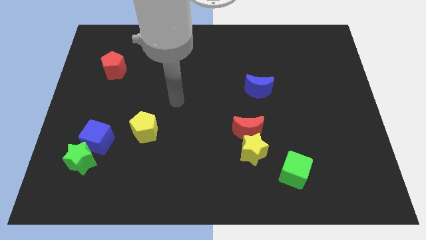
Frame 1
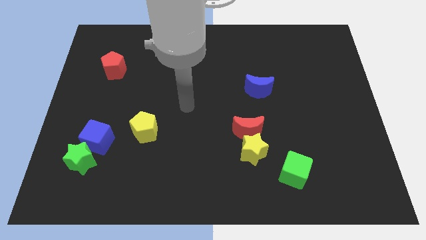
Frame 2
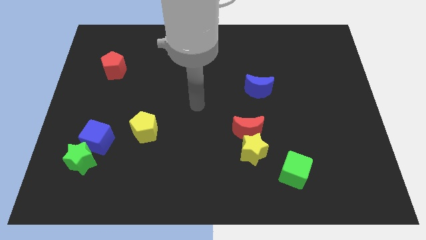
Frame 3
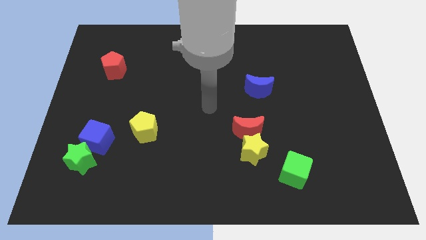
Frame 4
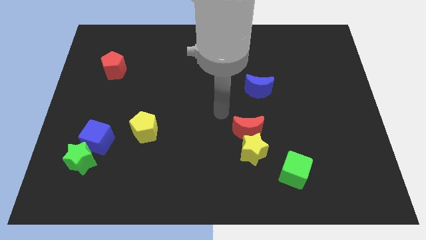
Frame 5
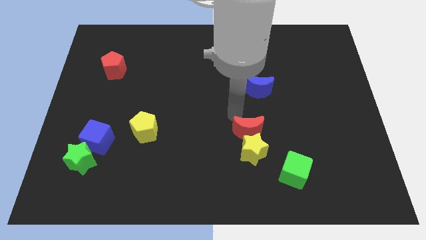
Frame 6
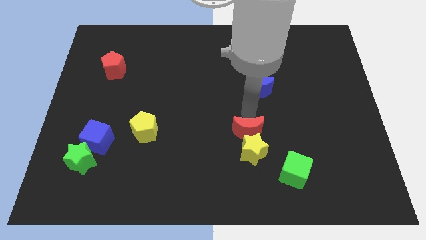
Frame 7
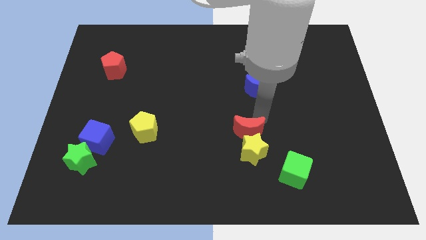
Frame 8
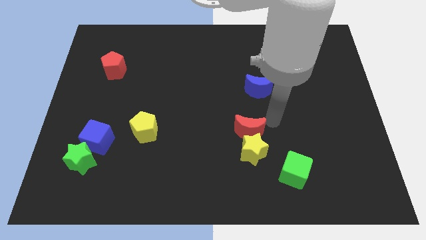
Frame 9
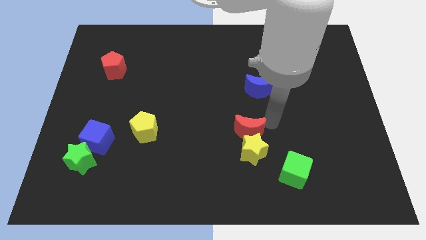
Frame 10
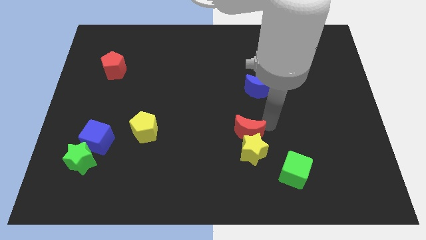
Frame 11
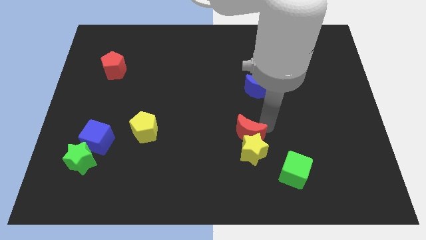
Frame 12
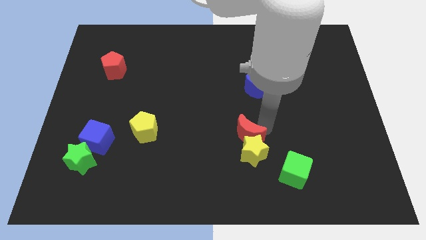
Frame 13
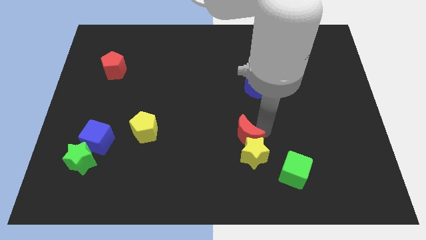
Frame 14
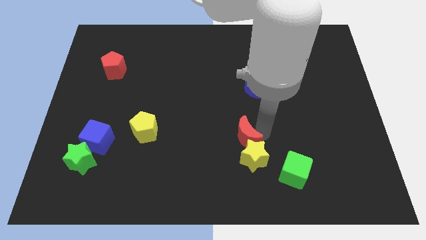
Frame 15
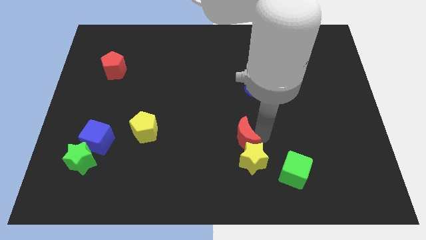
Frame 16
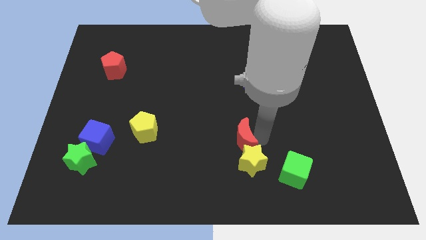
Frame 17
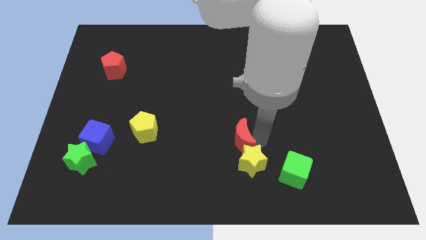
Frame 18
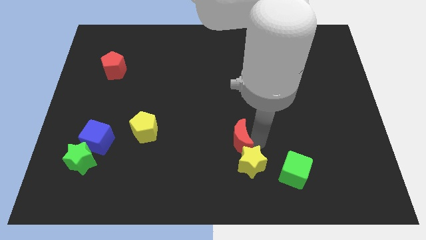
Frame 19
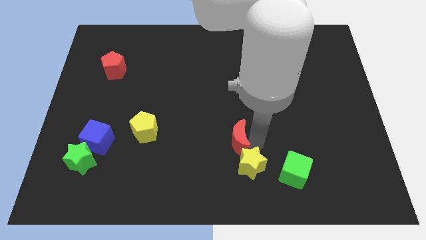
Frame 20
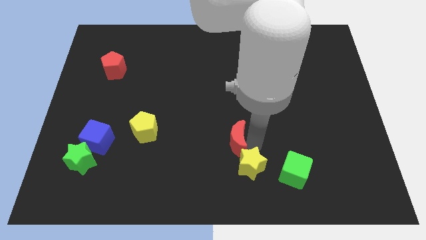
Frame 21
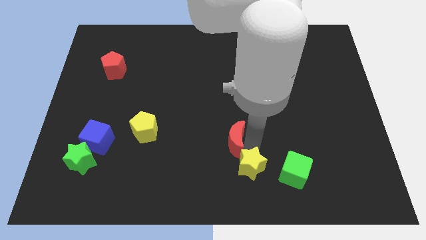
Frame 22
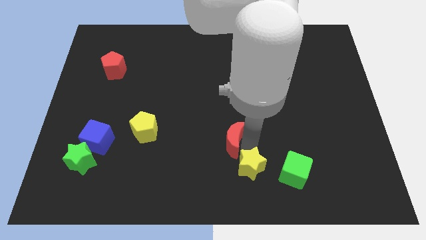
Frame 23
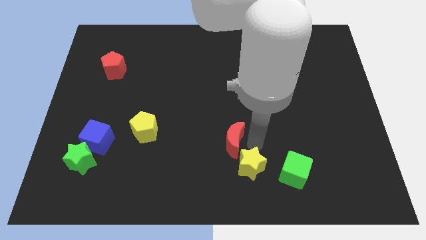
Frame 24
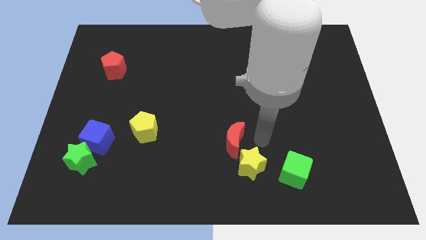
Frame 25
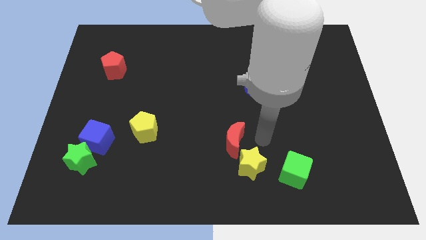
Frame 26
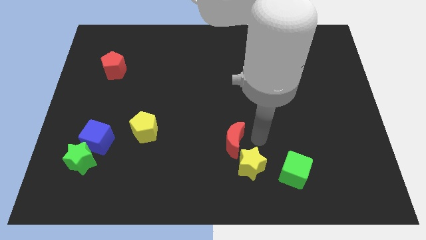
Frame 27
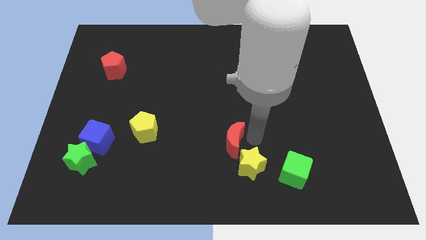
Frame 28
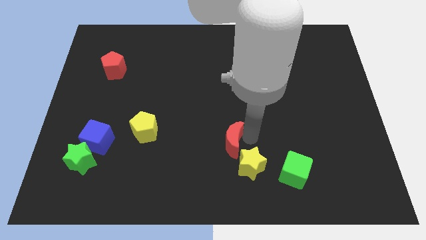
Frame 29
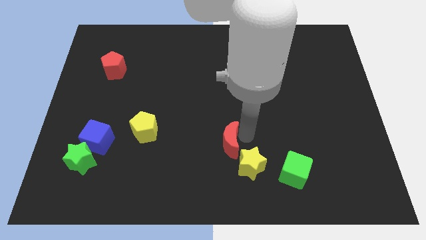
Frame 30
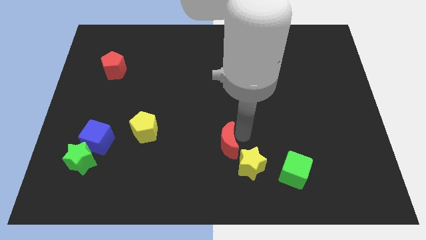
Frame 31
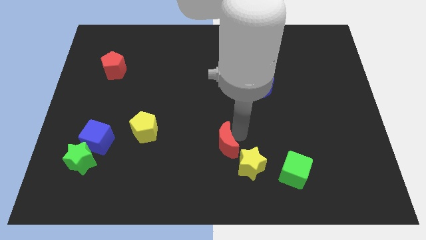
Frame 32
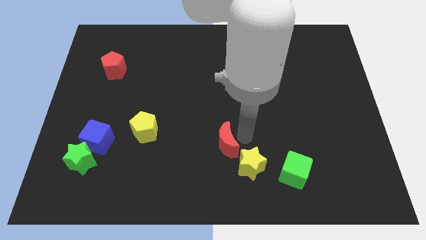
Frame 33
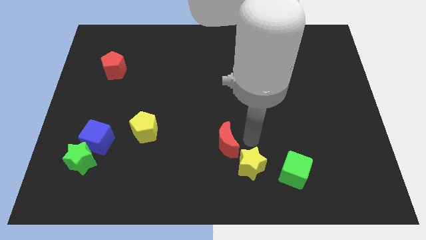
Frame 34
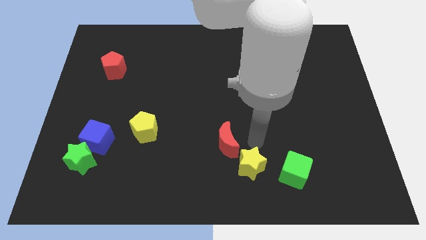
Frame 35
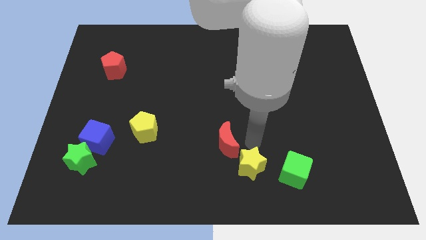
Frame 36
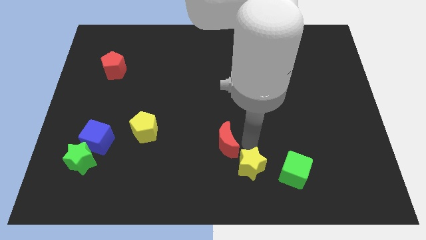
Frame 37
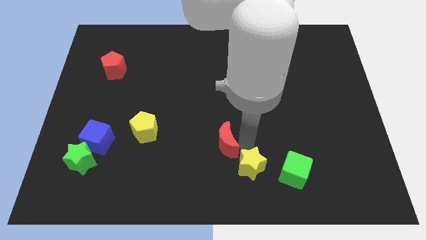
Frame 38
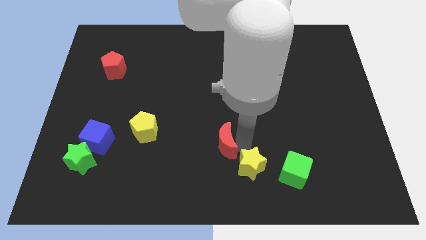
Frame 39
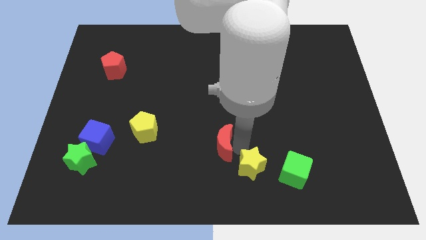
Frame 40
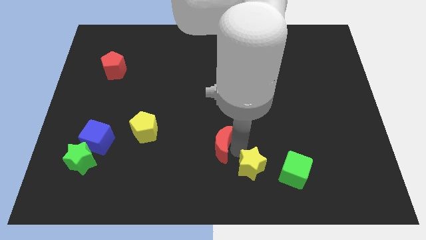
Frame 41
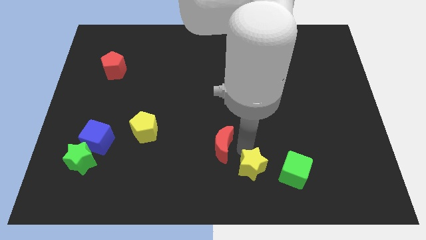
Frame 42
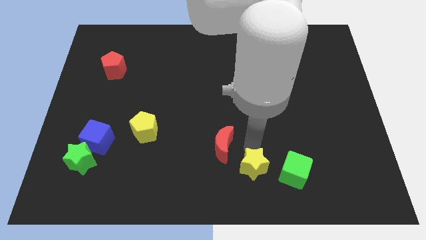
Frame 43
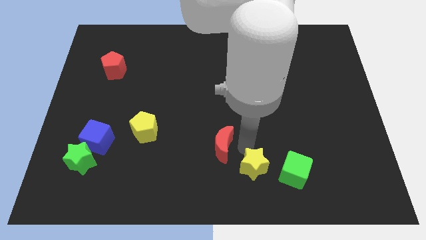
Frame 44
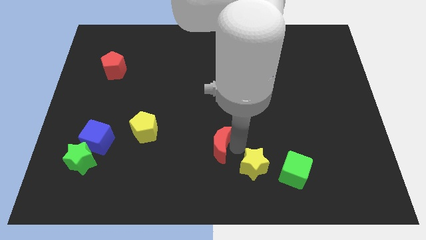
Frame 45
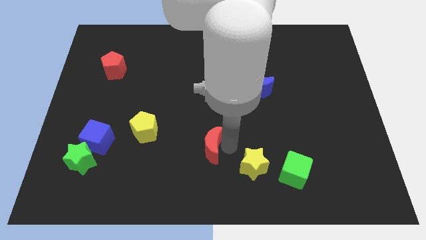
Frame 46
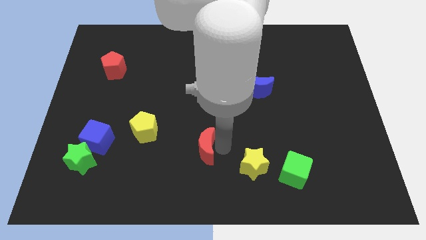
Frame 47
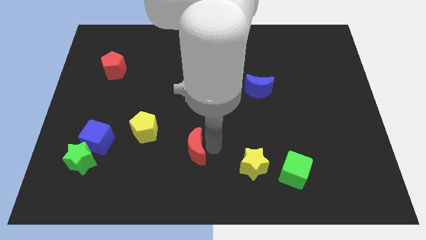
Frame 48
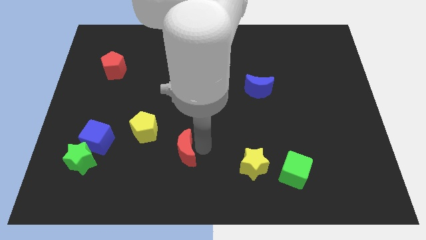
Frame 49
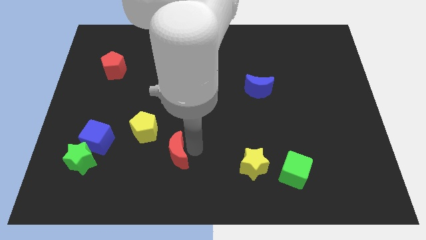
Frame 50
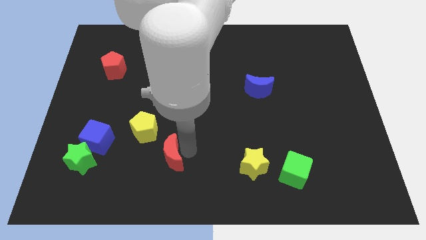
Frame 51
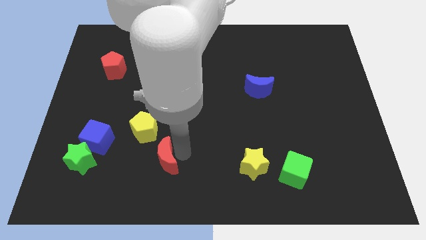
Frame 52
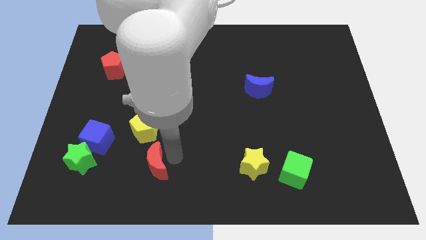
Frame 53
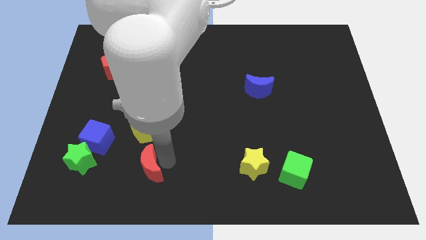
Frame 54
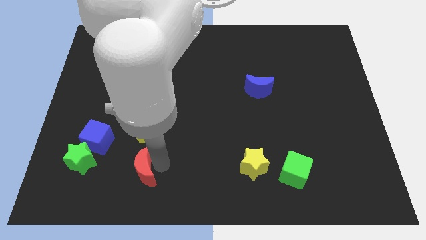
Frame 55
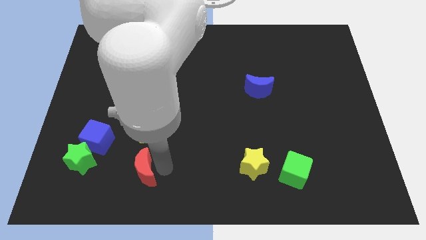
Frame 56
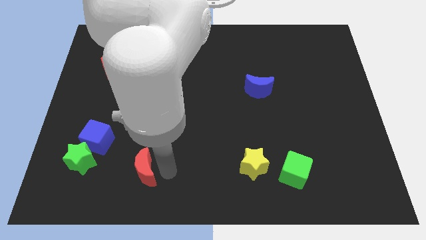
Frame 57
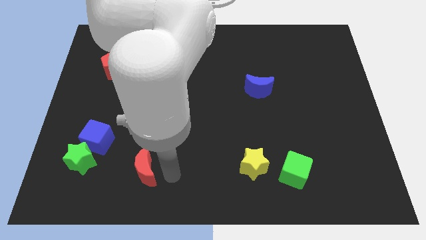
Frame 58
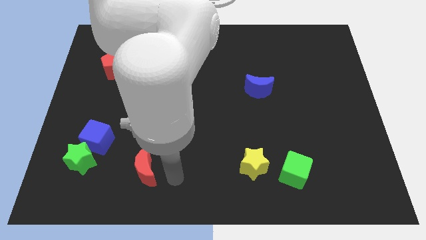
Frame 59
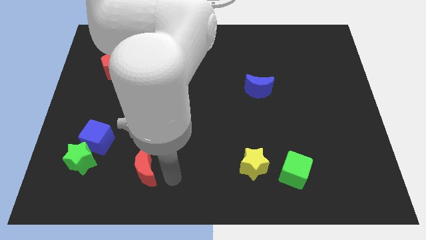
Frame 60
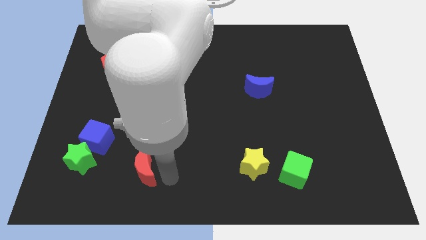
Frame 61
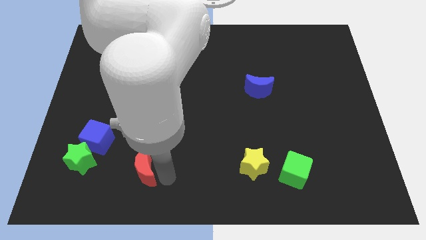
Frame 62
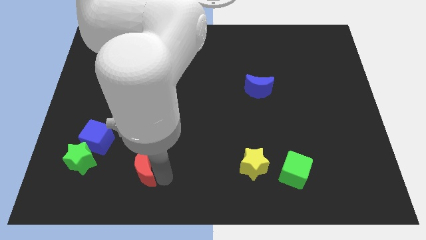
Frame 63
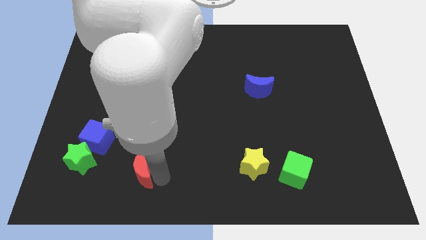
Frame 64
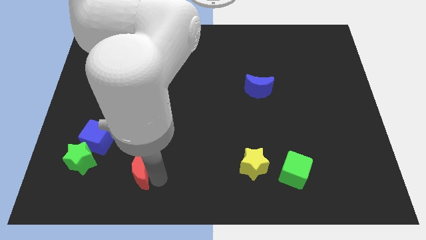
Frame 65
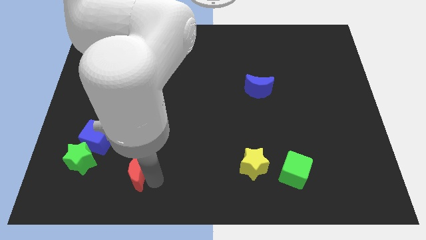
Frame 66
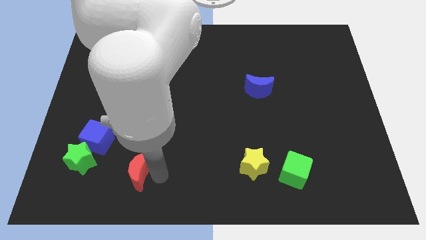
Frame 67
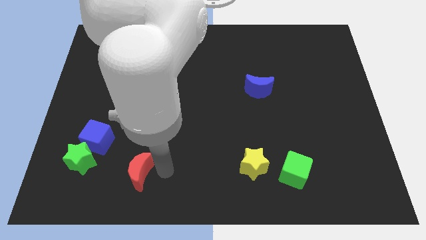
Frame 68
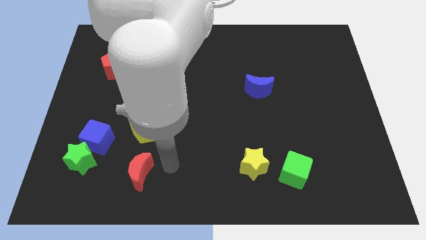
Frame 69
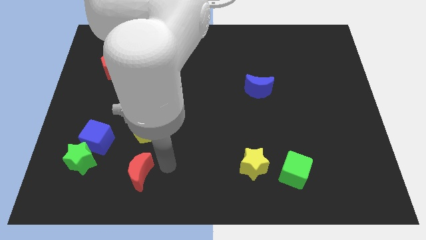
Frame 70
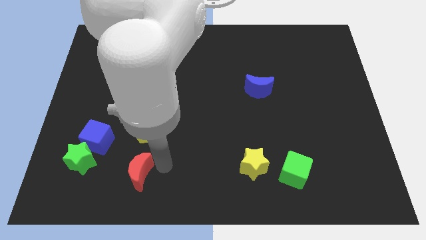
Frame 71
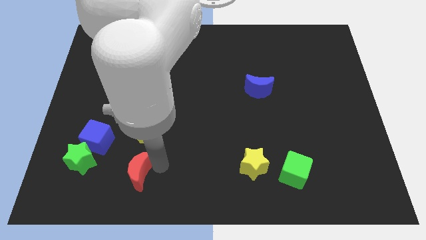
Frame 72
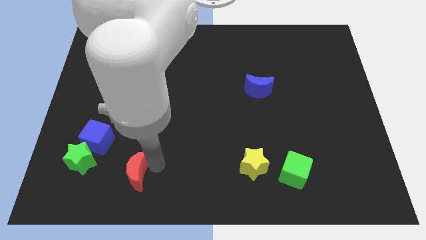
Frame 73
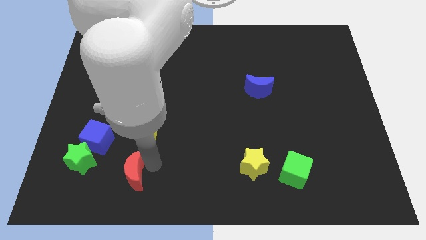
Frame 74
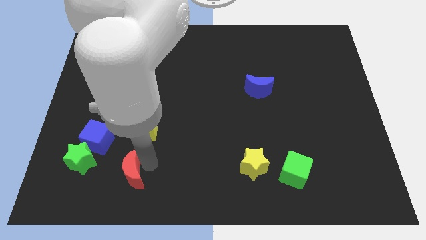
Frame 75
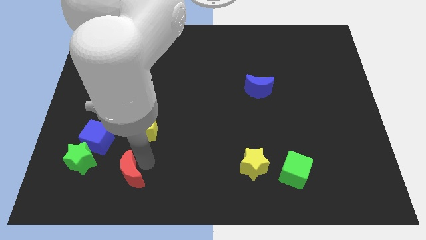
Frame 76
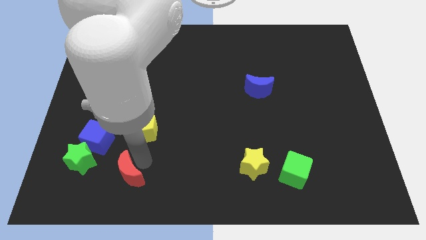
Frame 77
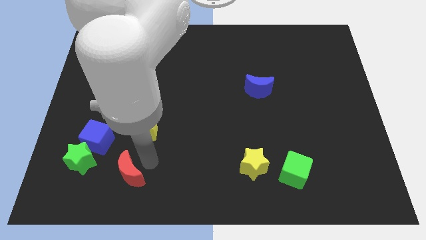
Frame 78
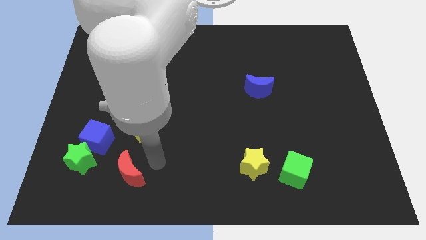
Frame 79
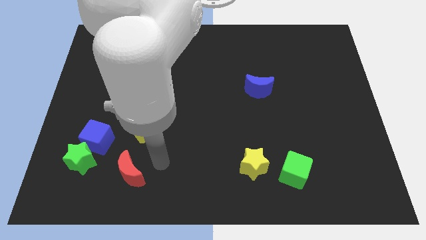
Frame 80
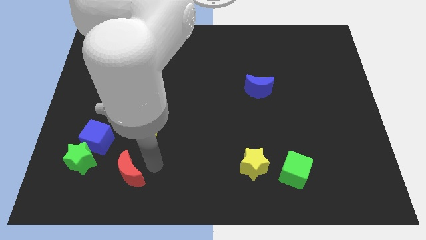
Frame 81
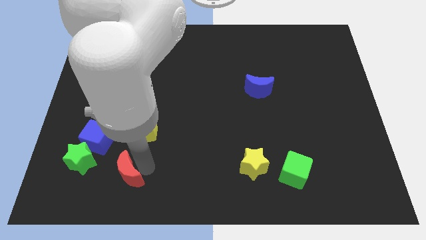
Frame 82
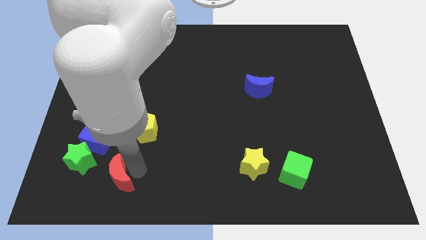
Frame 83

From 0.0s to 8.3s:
put the red moon diagonally down and to the right of the green star
